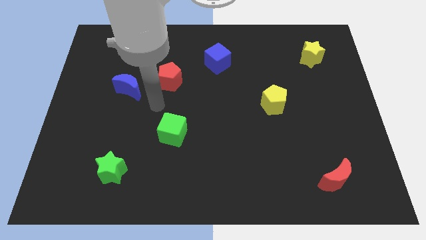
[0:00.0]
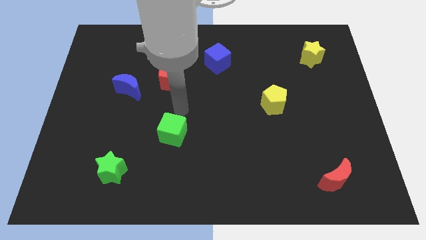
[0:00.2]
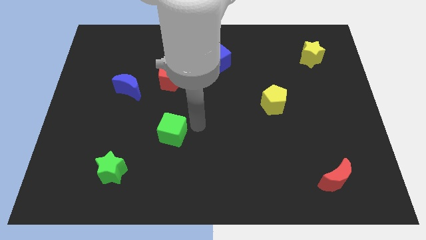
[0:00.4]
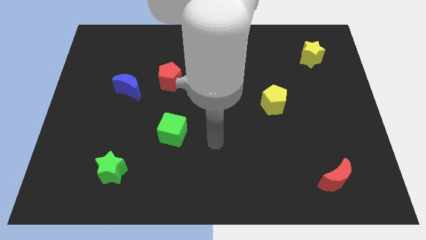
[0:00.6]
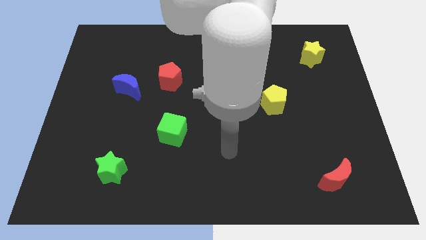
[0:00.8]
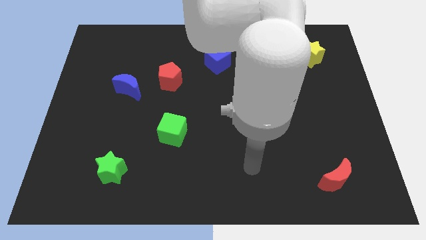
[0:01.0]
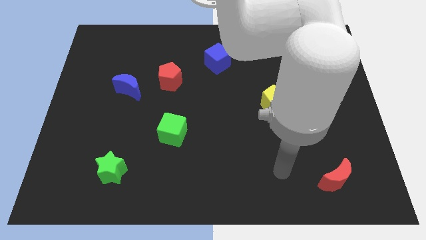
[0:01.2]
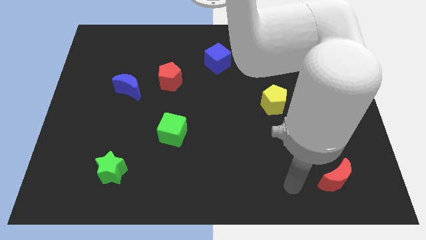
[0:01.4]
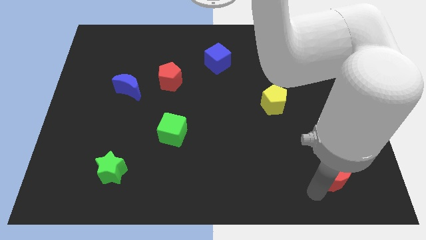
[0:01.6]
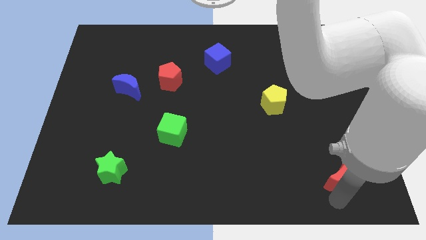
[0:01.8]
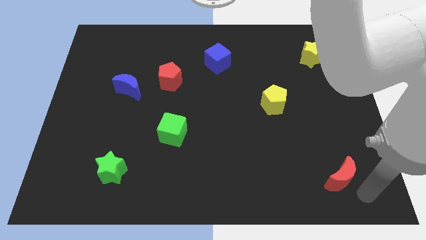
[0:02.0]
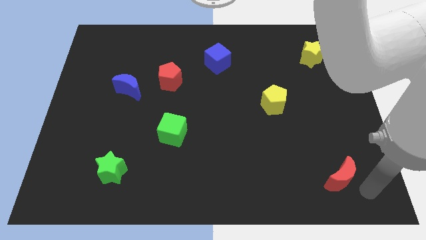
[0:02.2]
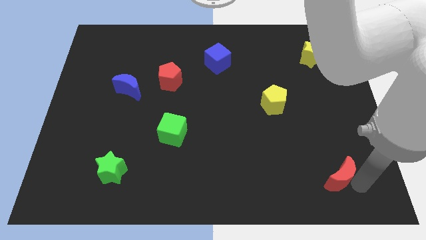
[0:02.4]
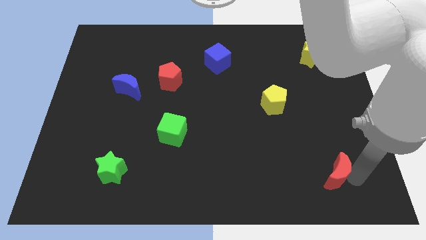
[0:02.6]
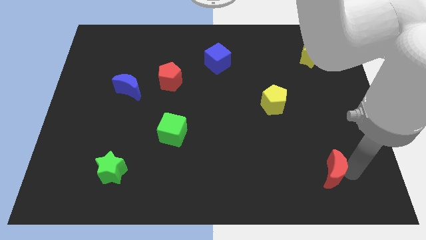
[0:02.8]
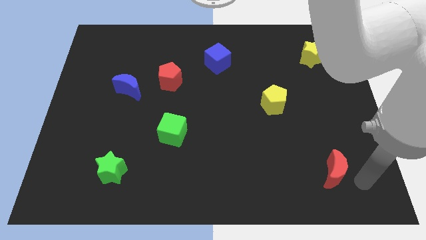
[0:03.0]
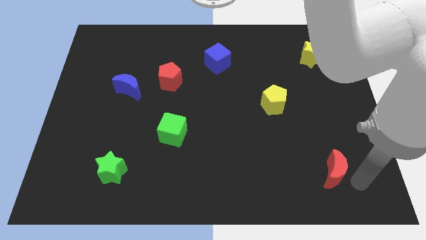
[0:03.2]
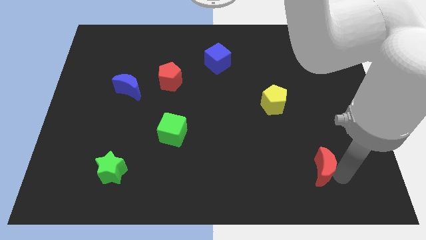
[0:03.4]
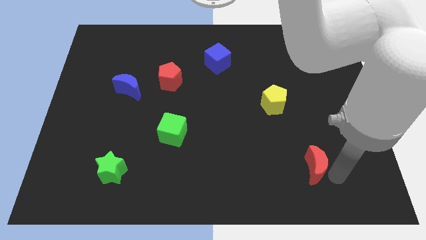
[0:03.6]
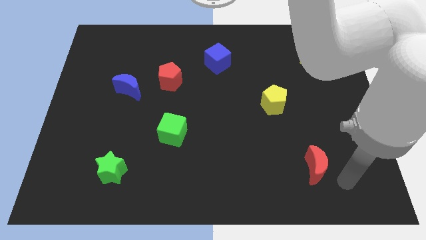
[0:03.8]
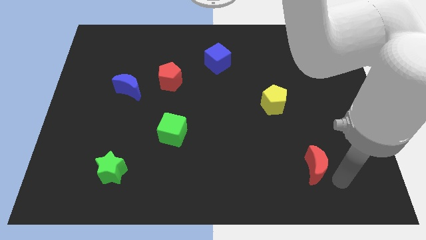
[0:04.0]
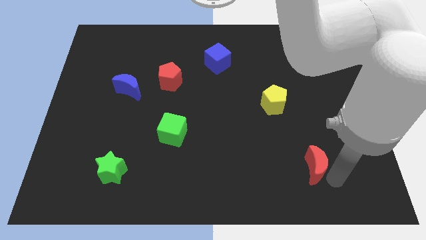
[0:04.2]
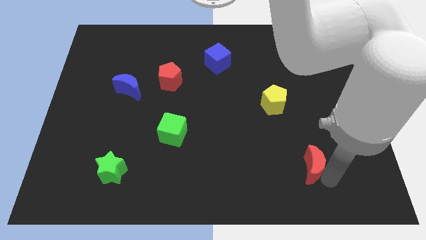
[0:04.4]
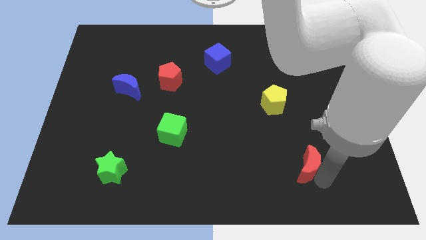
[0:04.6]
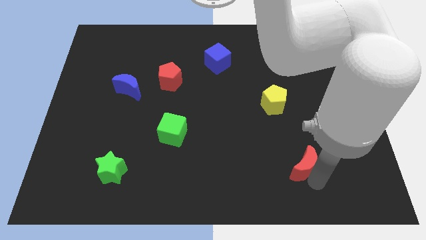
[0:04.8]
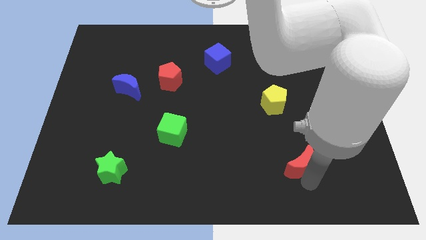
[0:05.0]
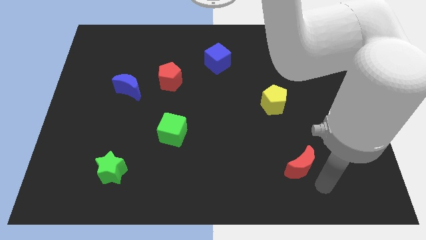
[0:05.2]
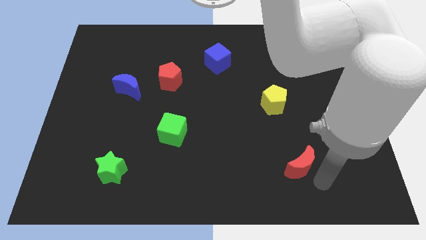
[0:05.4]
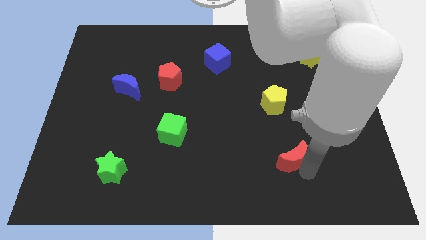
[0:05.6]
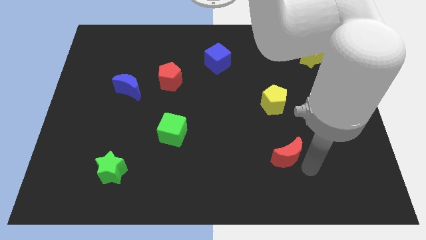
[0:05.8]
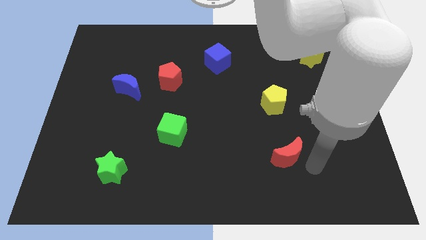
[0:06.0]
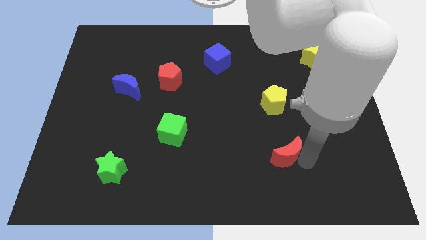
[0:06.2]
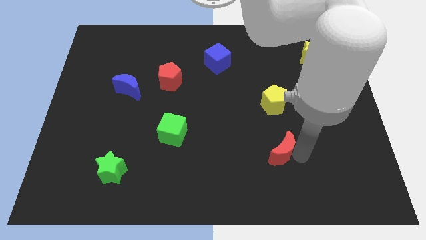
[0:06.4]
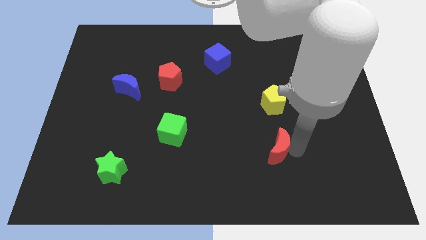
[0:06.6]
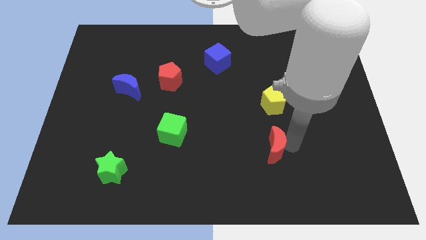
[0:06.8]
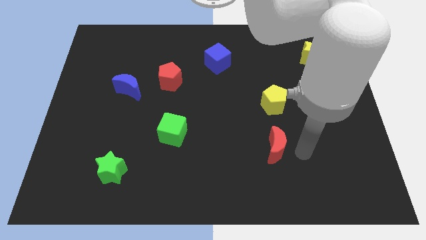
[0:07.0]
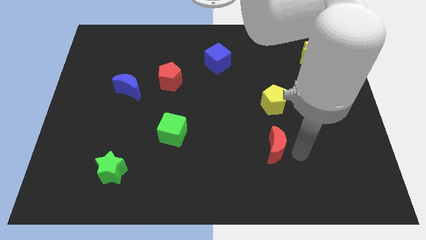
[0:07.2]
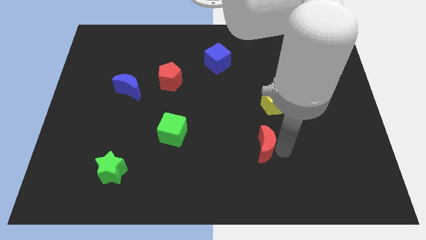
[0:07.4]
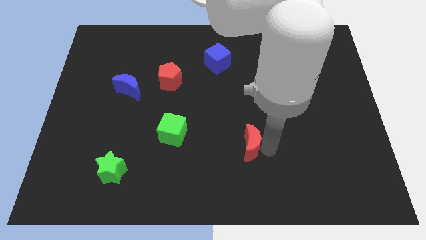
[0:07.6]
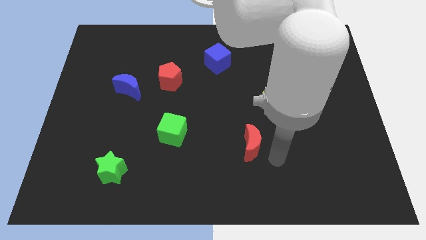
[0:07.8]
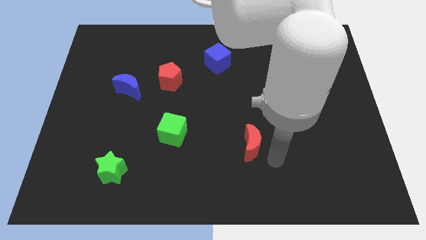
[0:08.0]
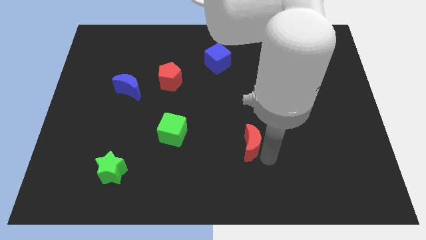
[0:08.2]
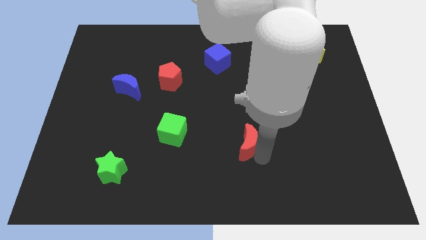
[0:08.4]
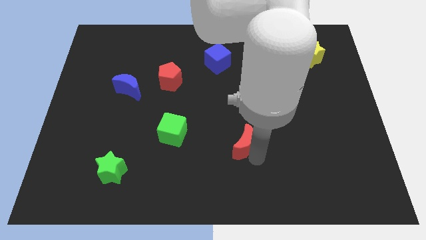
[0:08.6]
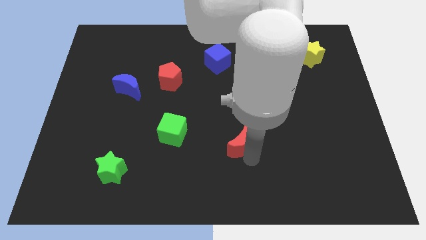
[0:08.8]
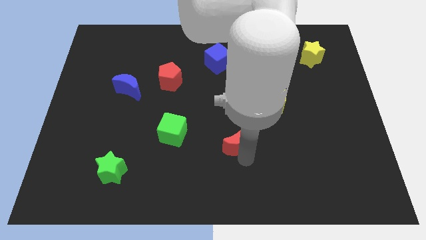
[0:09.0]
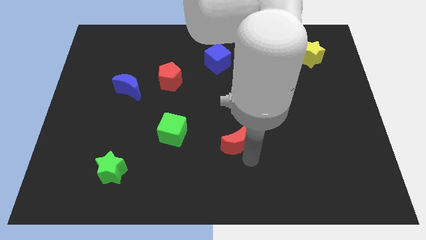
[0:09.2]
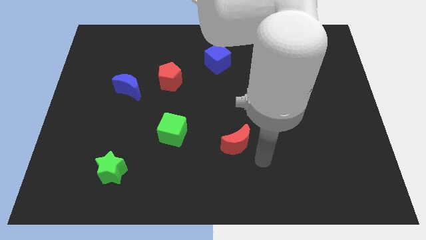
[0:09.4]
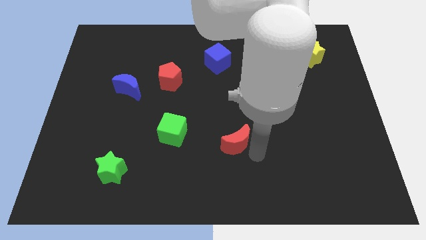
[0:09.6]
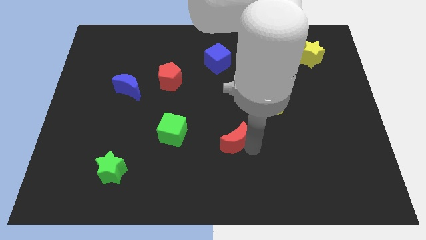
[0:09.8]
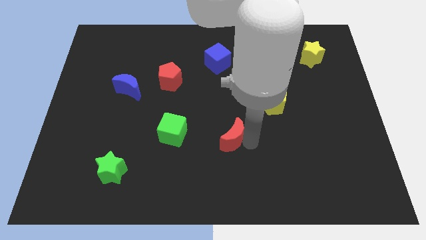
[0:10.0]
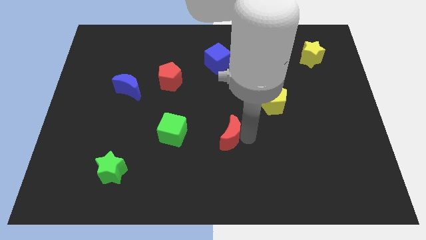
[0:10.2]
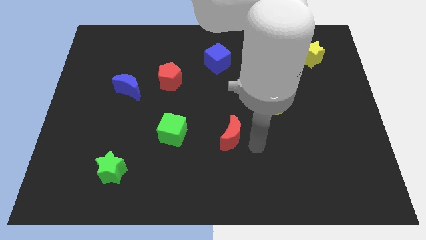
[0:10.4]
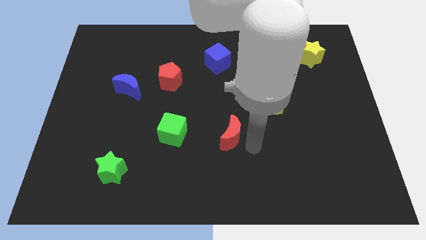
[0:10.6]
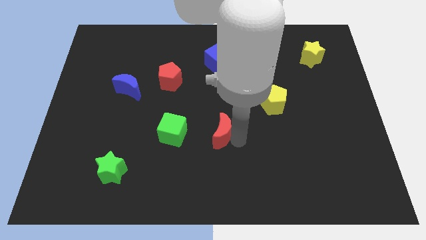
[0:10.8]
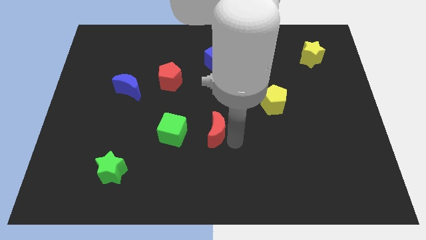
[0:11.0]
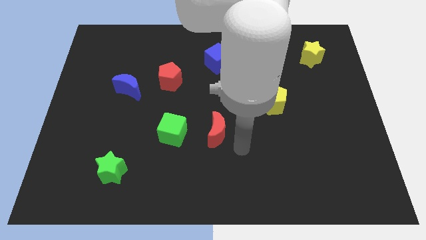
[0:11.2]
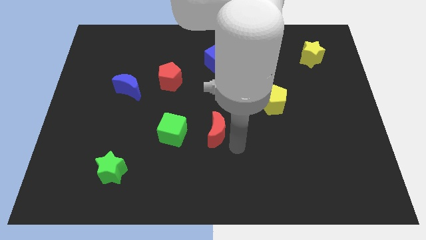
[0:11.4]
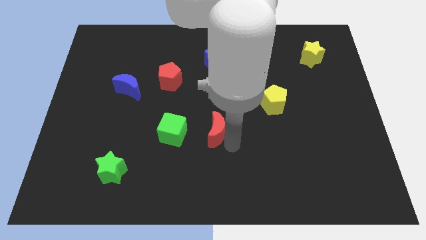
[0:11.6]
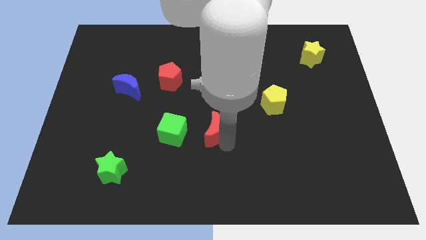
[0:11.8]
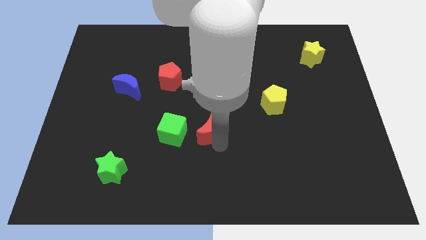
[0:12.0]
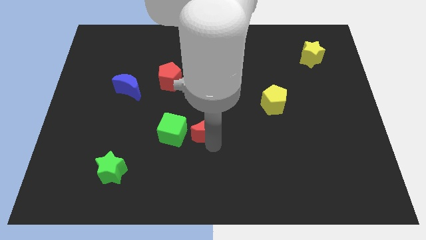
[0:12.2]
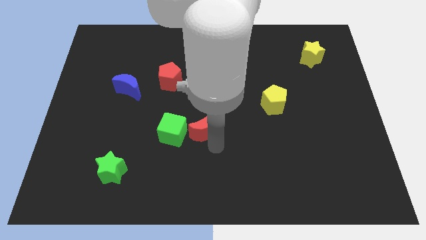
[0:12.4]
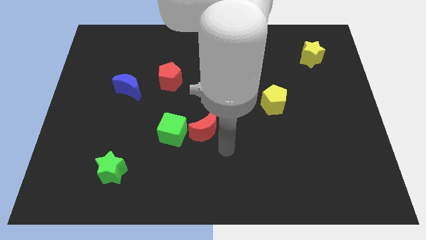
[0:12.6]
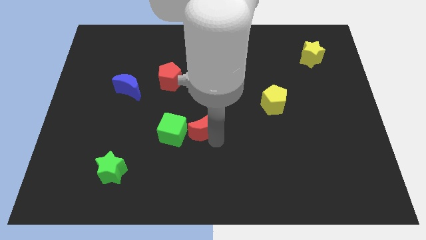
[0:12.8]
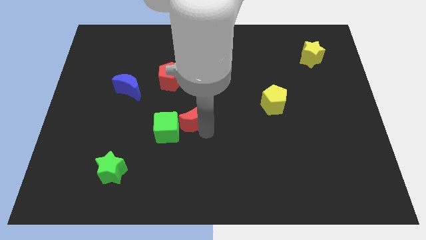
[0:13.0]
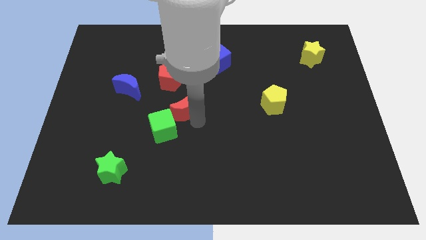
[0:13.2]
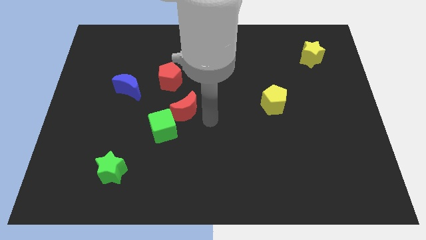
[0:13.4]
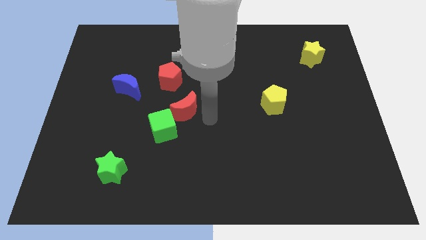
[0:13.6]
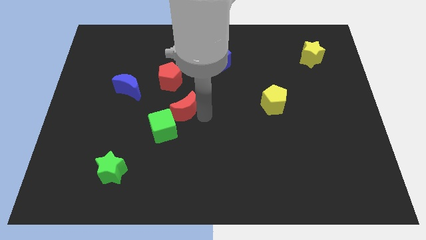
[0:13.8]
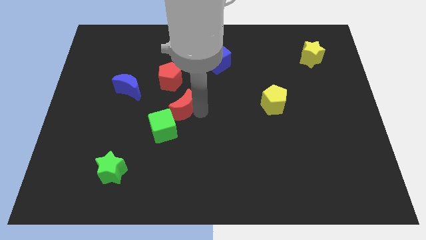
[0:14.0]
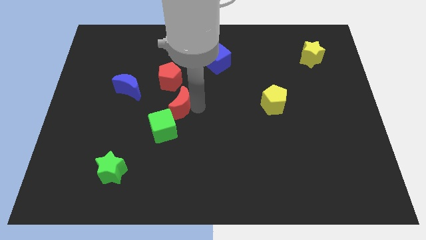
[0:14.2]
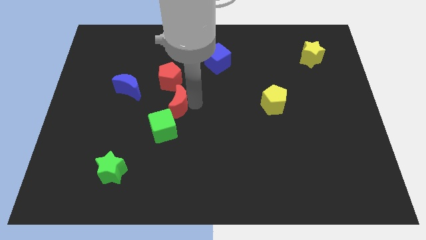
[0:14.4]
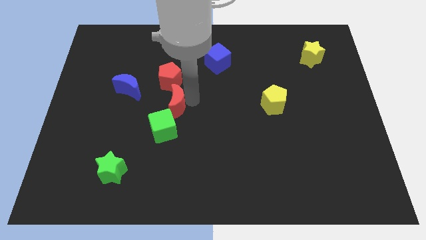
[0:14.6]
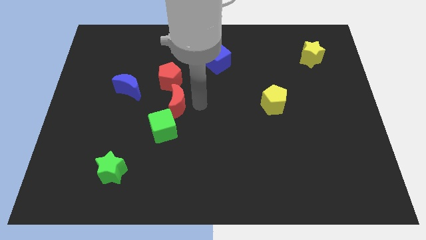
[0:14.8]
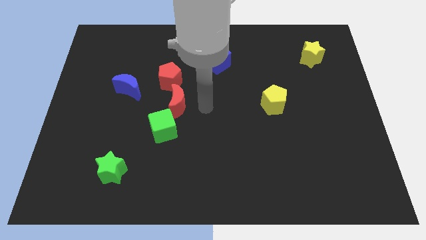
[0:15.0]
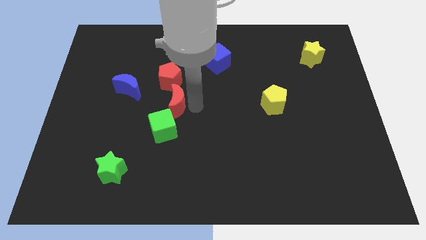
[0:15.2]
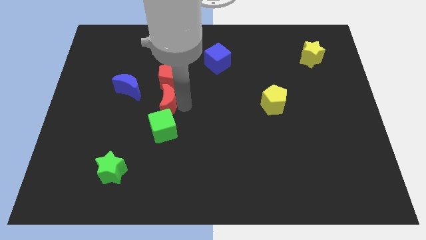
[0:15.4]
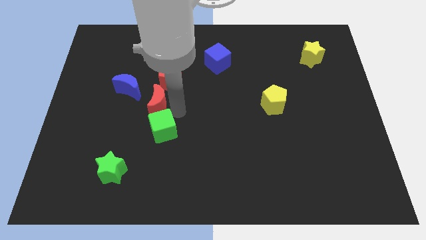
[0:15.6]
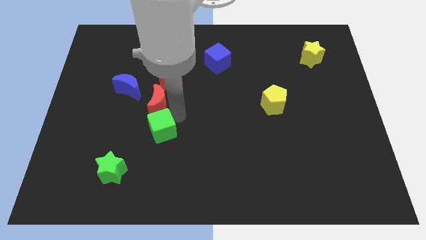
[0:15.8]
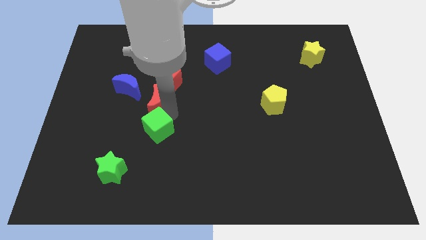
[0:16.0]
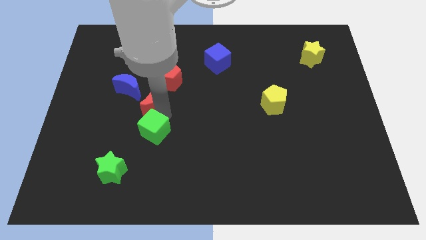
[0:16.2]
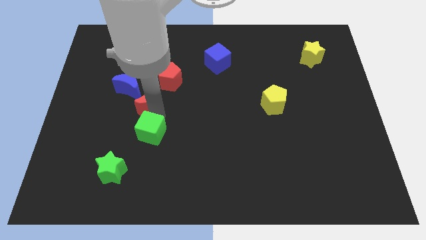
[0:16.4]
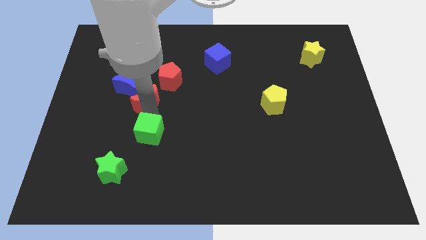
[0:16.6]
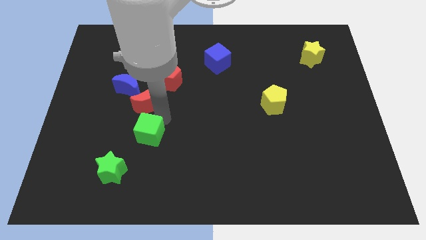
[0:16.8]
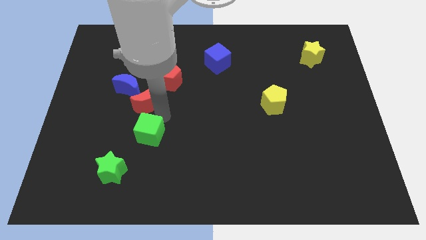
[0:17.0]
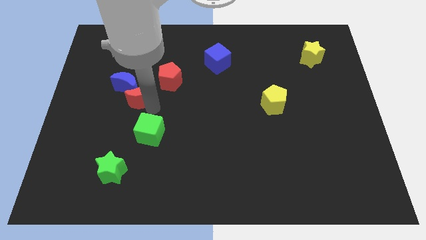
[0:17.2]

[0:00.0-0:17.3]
push the red moon towards the blue moon
